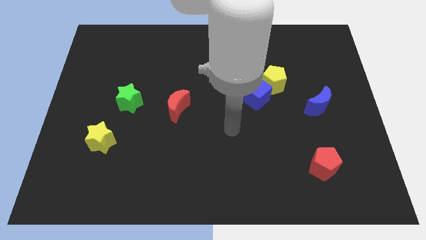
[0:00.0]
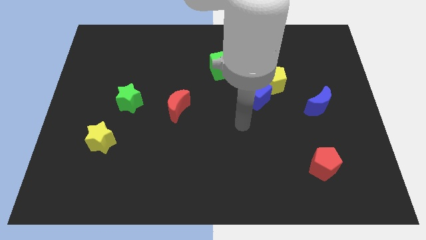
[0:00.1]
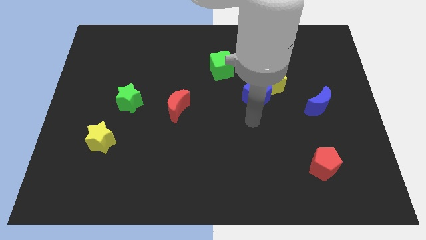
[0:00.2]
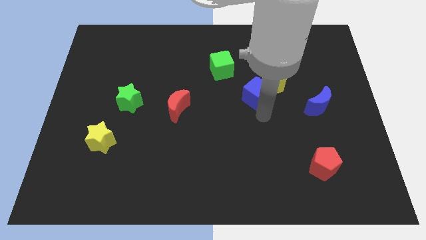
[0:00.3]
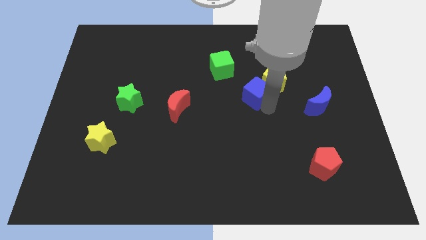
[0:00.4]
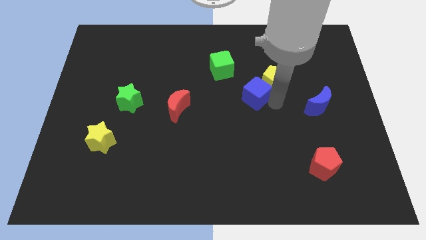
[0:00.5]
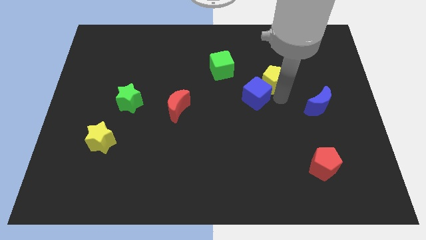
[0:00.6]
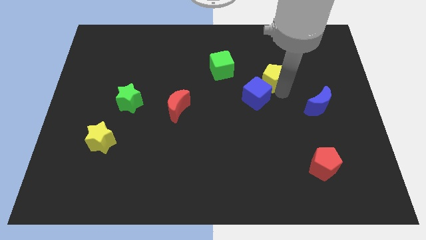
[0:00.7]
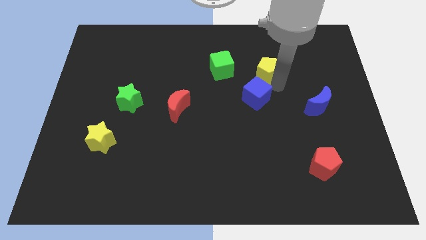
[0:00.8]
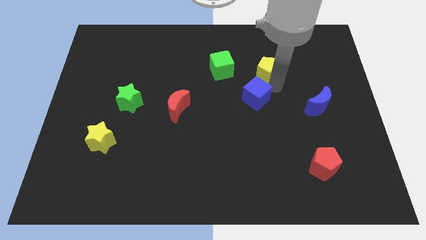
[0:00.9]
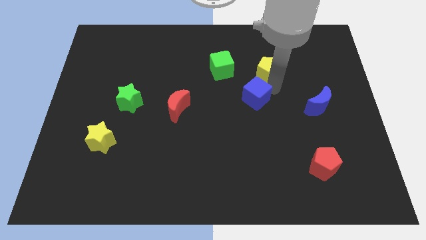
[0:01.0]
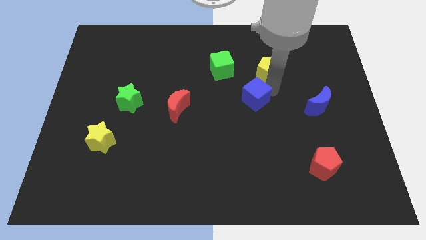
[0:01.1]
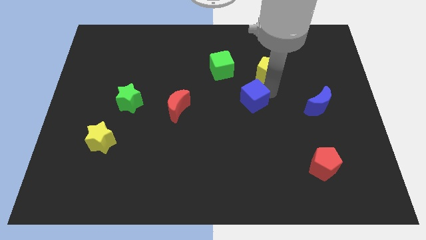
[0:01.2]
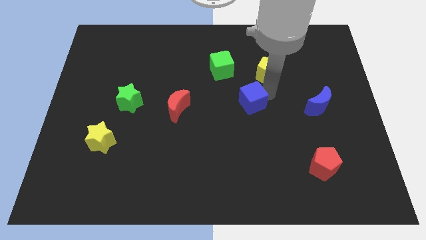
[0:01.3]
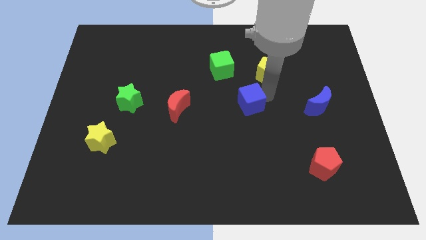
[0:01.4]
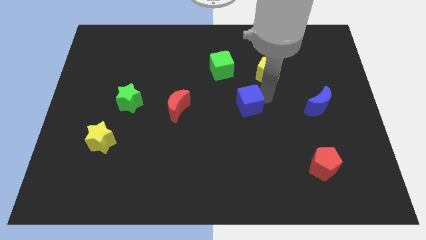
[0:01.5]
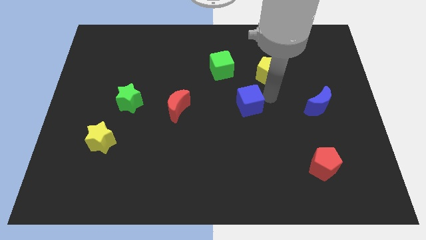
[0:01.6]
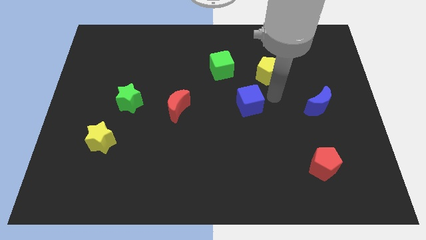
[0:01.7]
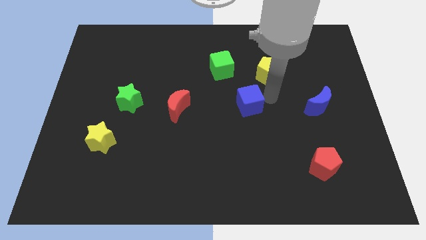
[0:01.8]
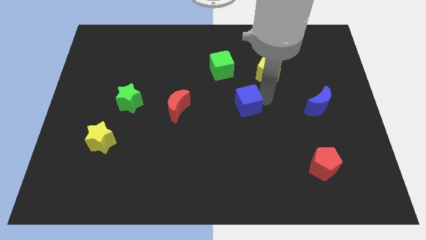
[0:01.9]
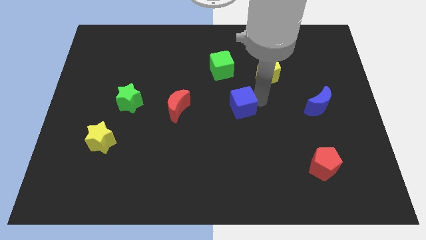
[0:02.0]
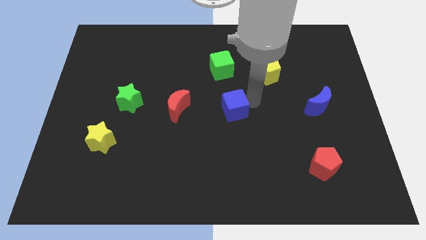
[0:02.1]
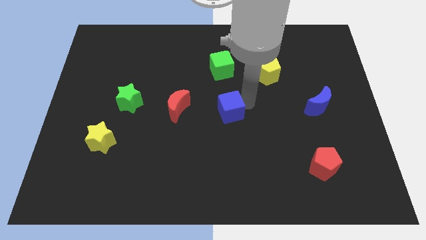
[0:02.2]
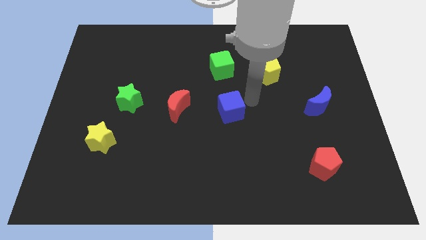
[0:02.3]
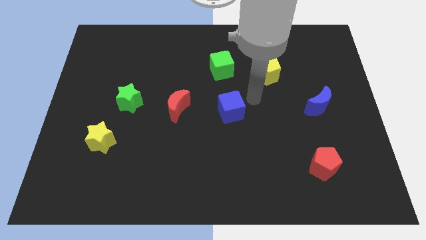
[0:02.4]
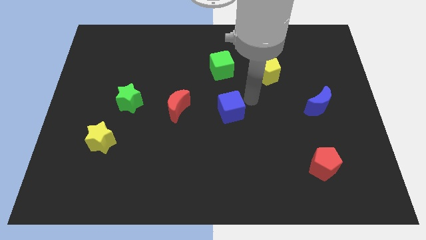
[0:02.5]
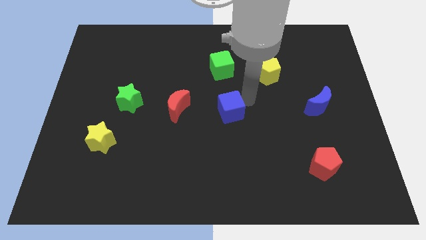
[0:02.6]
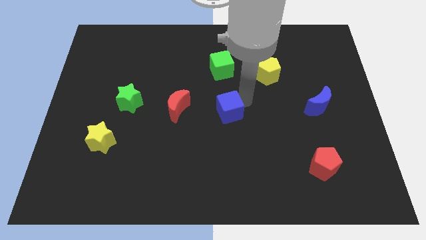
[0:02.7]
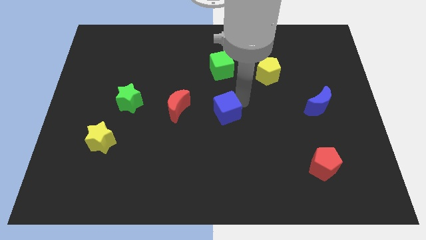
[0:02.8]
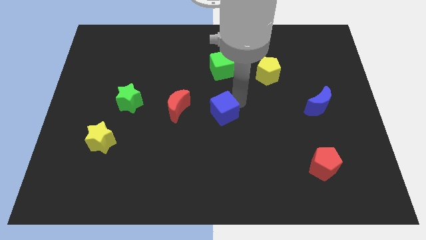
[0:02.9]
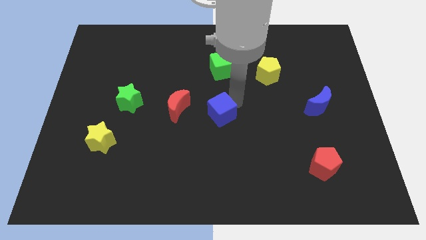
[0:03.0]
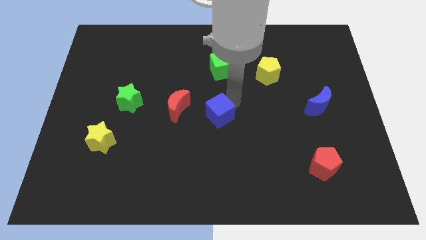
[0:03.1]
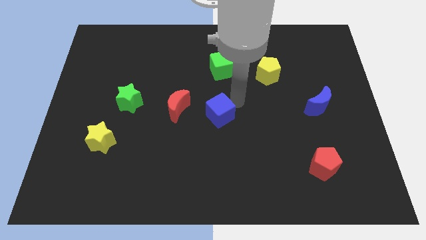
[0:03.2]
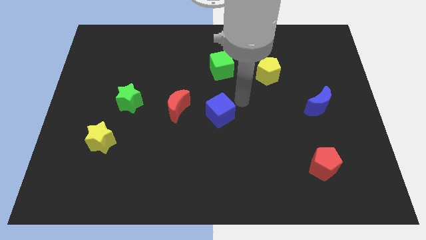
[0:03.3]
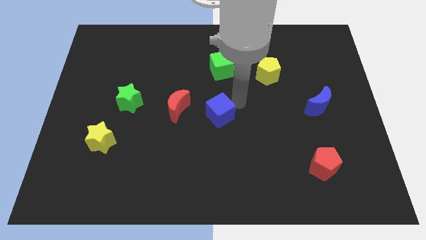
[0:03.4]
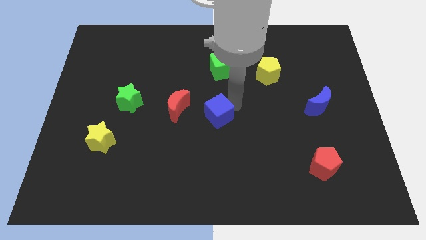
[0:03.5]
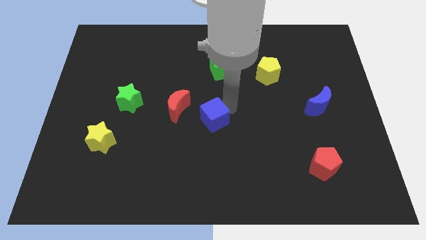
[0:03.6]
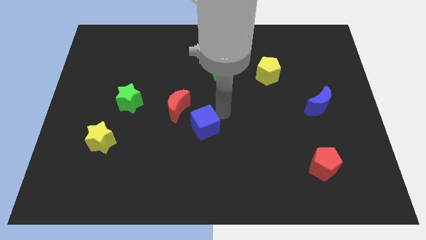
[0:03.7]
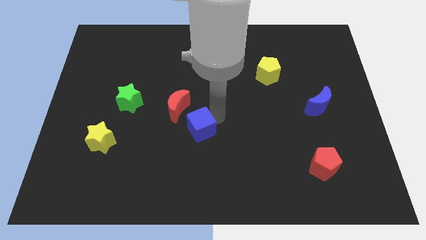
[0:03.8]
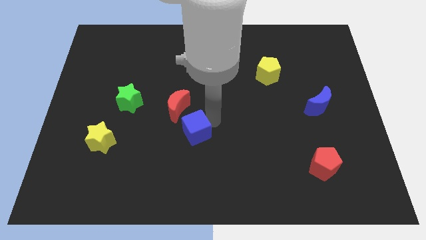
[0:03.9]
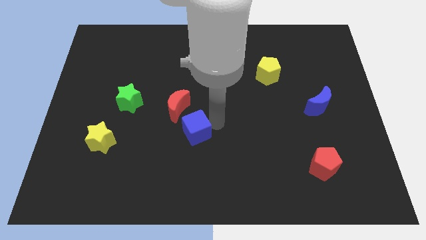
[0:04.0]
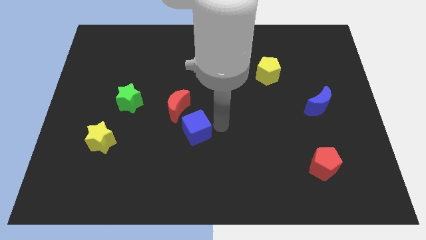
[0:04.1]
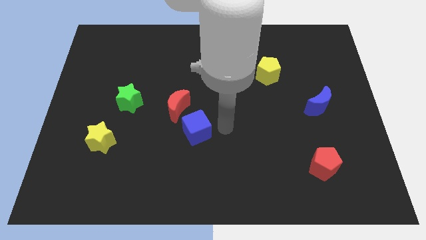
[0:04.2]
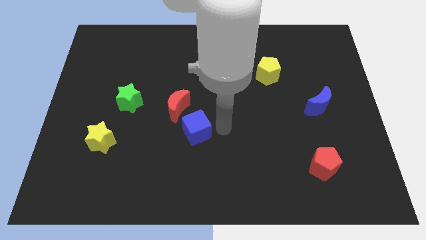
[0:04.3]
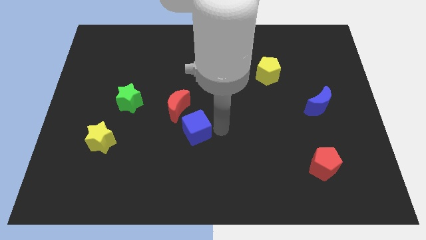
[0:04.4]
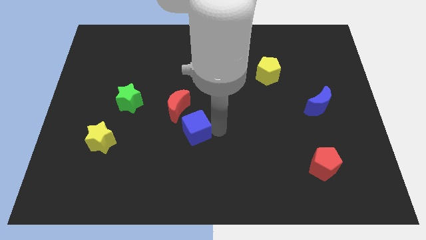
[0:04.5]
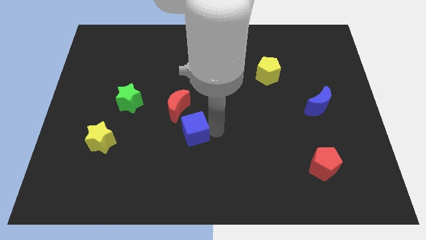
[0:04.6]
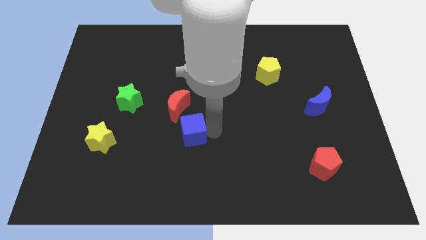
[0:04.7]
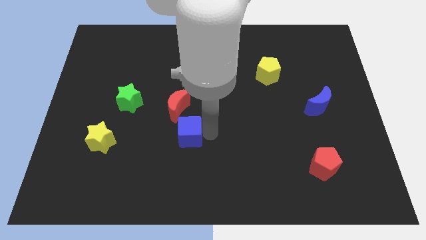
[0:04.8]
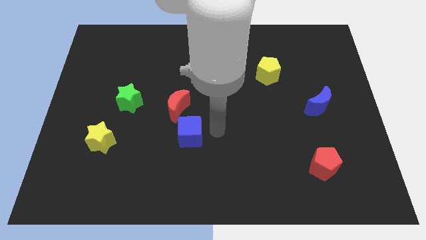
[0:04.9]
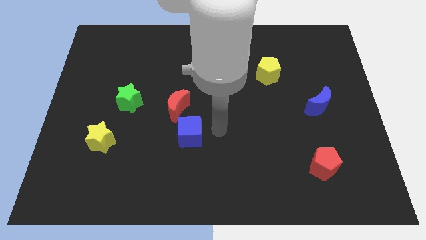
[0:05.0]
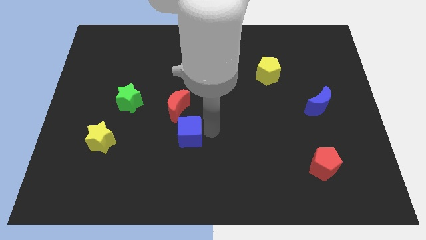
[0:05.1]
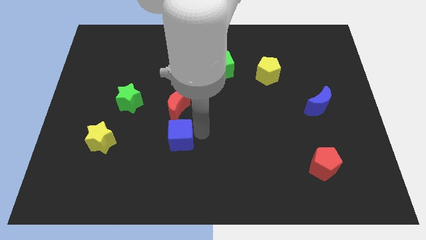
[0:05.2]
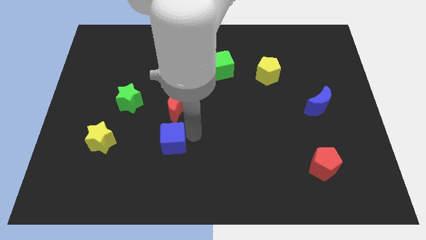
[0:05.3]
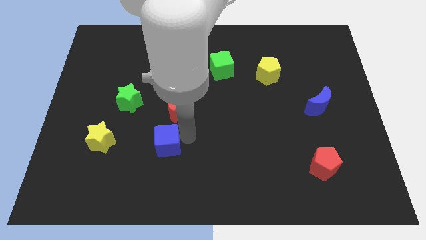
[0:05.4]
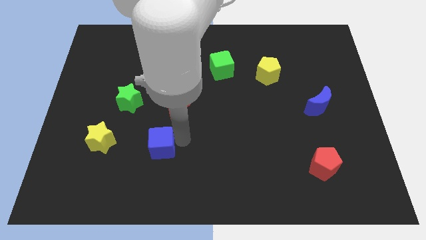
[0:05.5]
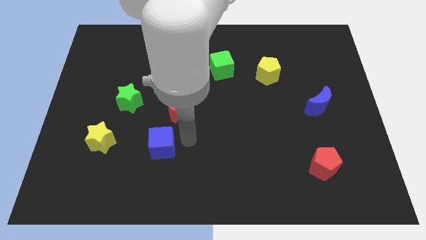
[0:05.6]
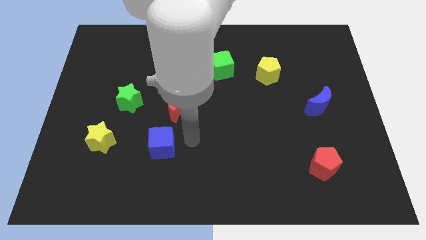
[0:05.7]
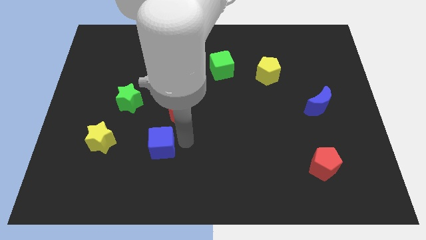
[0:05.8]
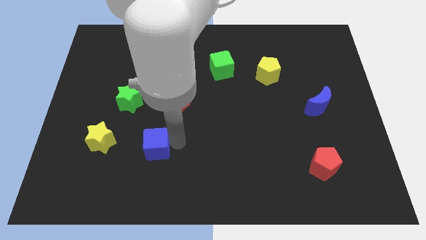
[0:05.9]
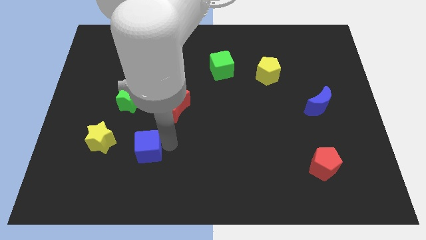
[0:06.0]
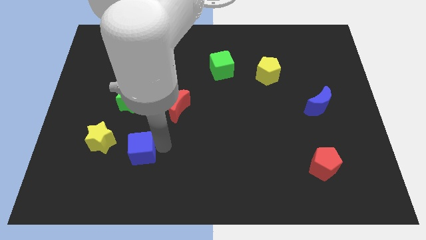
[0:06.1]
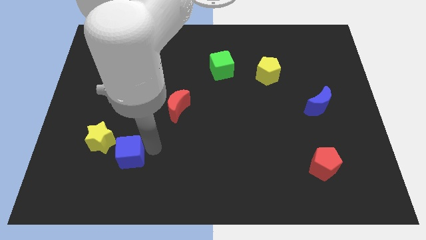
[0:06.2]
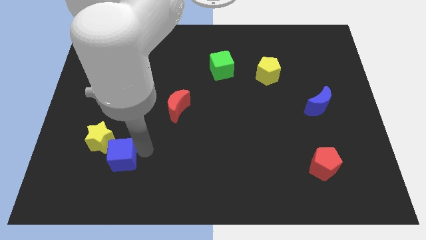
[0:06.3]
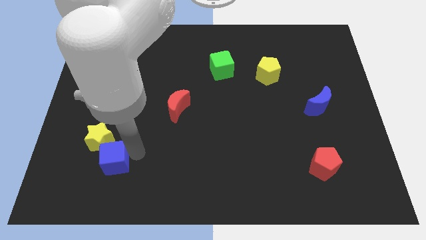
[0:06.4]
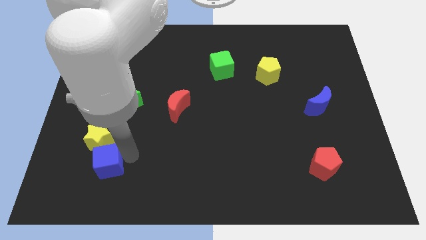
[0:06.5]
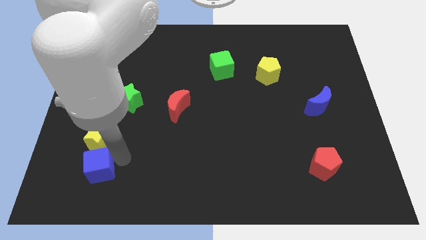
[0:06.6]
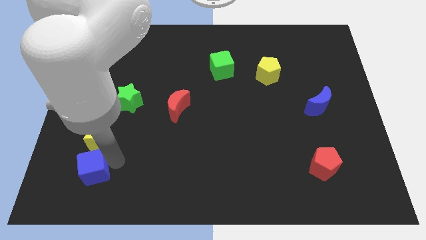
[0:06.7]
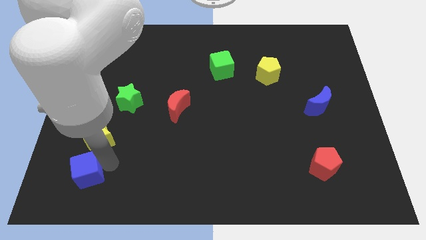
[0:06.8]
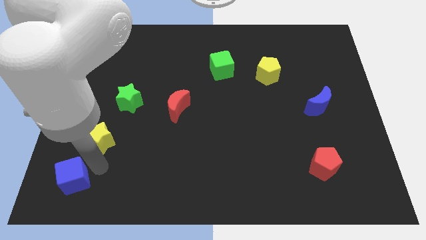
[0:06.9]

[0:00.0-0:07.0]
push the blue cube to the lower left corner
